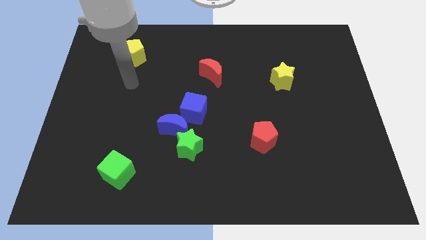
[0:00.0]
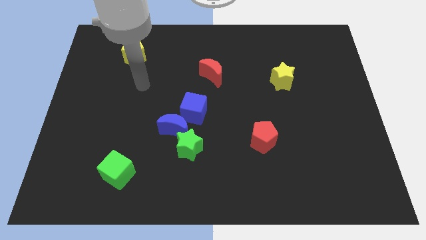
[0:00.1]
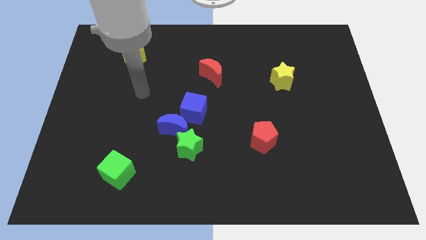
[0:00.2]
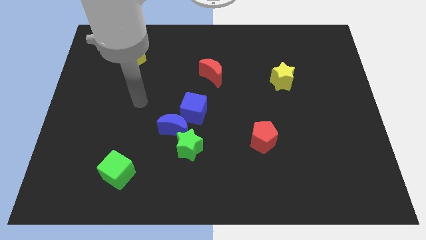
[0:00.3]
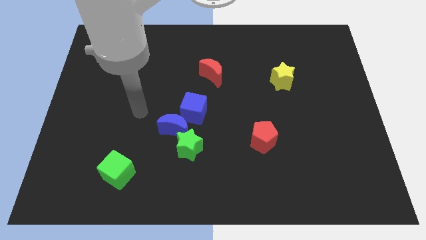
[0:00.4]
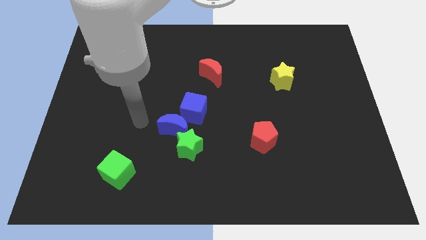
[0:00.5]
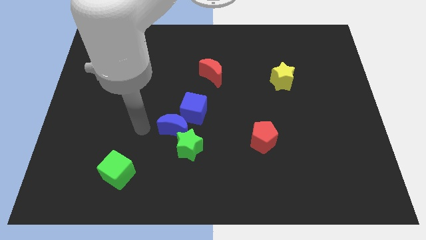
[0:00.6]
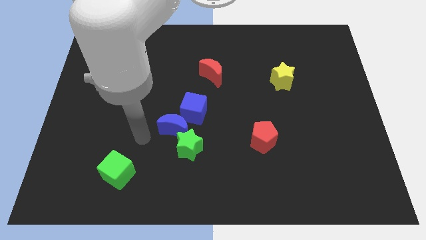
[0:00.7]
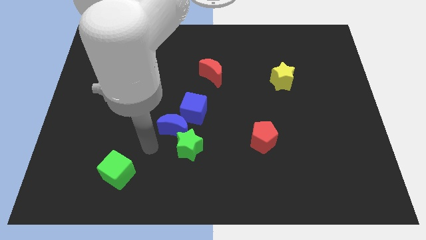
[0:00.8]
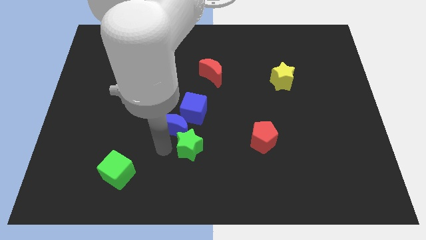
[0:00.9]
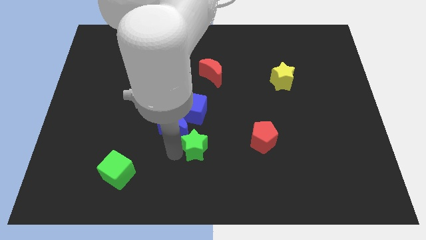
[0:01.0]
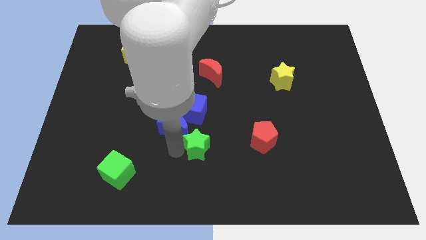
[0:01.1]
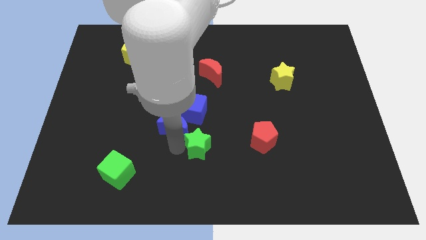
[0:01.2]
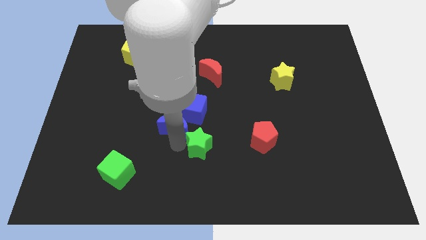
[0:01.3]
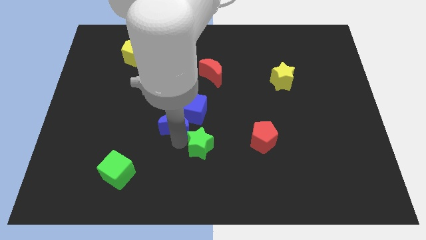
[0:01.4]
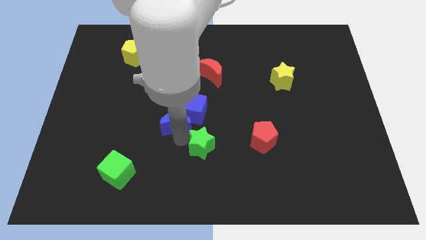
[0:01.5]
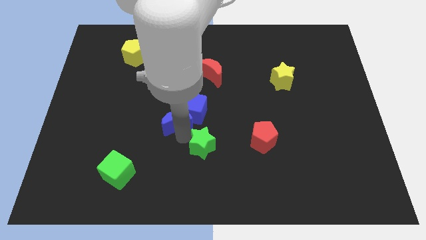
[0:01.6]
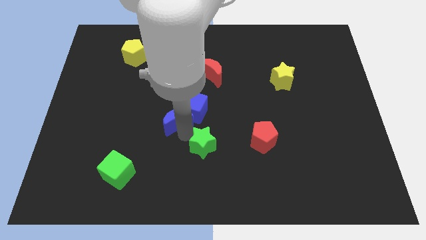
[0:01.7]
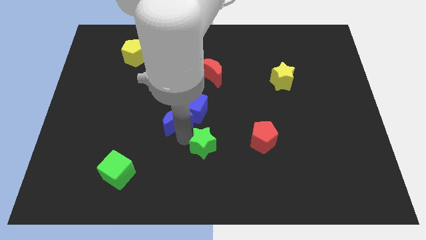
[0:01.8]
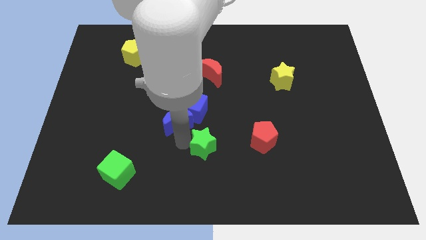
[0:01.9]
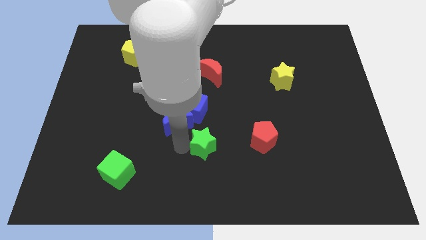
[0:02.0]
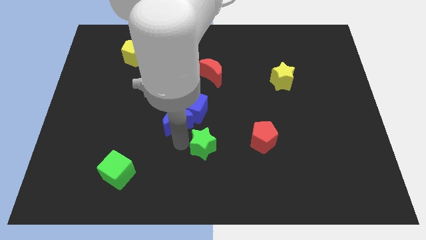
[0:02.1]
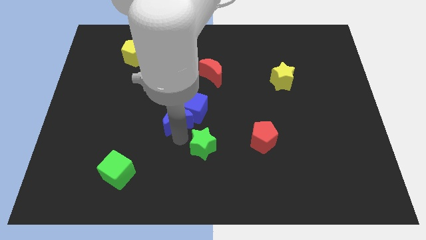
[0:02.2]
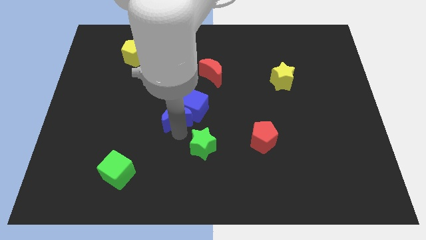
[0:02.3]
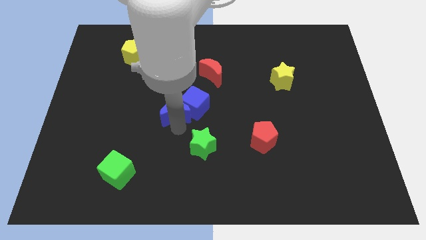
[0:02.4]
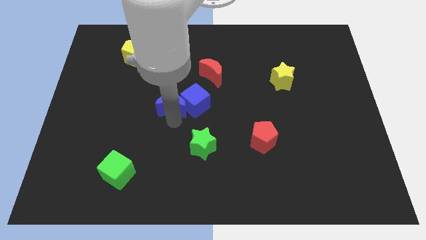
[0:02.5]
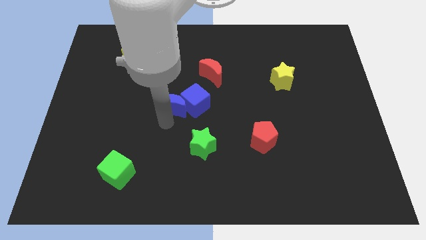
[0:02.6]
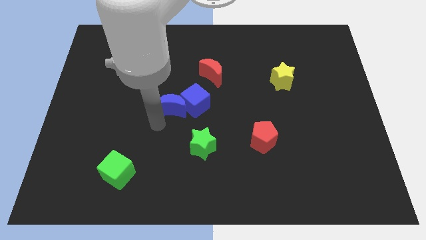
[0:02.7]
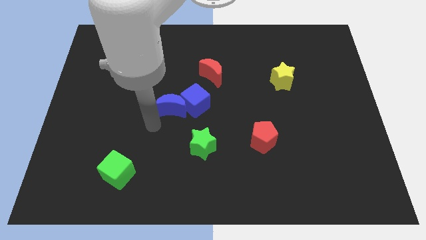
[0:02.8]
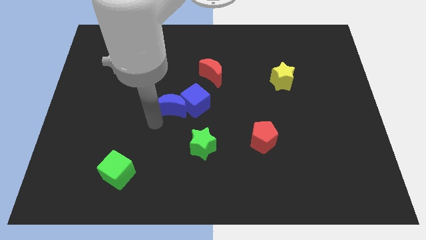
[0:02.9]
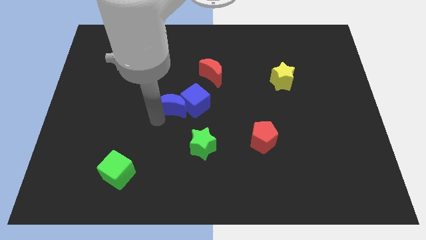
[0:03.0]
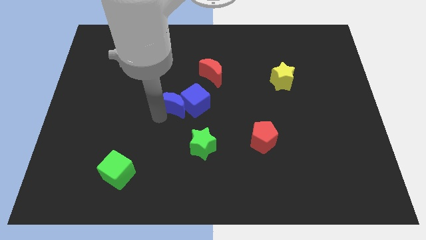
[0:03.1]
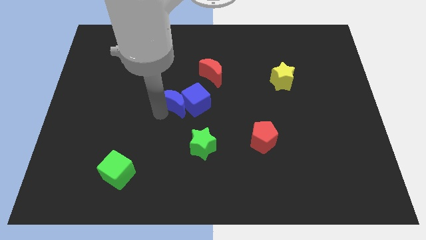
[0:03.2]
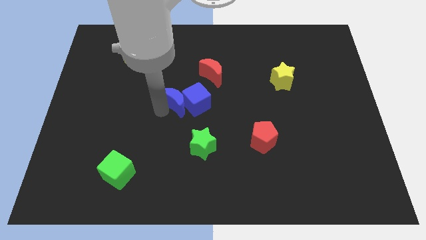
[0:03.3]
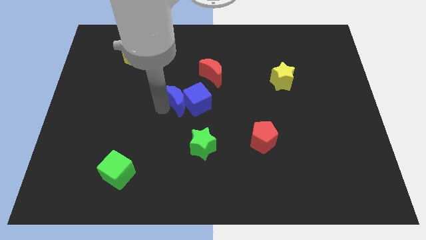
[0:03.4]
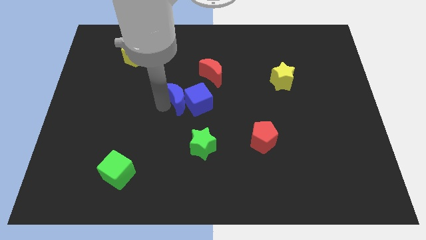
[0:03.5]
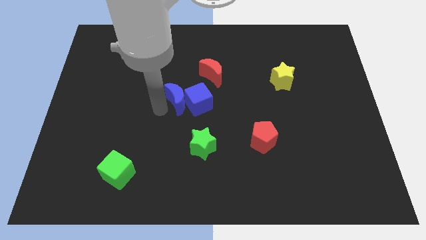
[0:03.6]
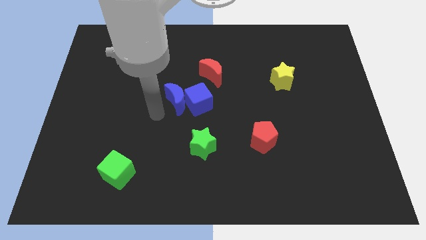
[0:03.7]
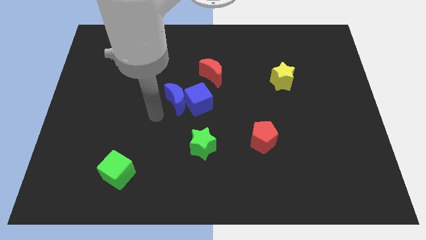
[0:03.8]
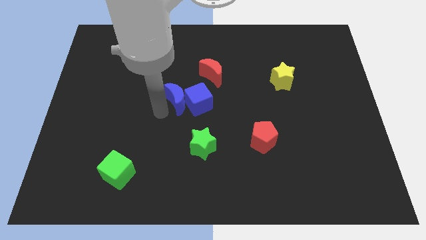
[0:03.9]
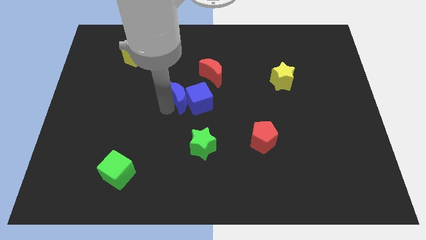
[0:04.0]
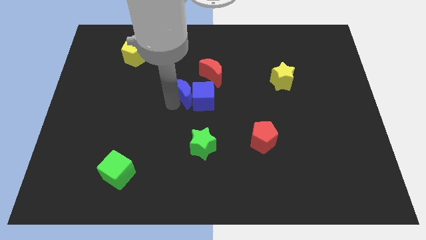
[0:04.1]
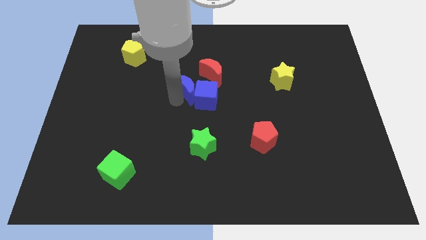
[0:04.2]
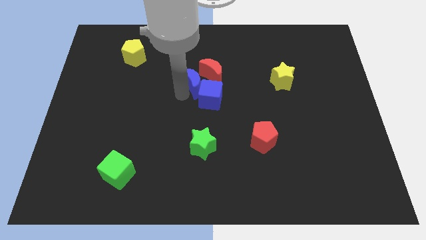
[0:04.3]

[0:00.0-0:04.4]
slide the blue moon to the red moon

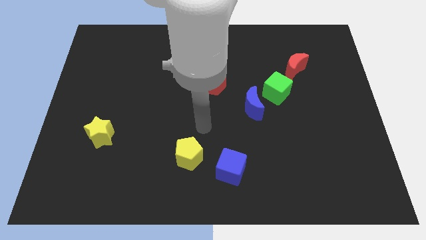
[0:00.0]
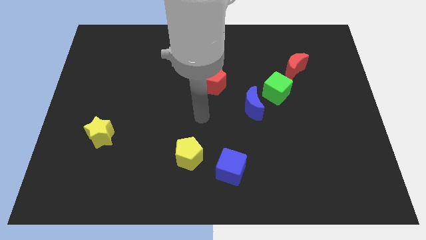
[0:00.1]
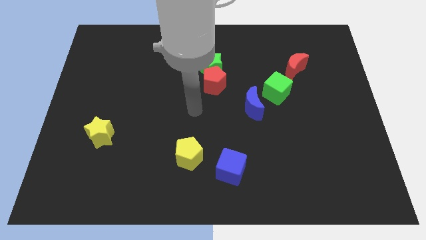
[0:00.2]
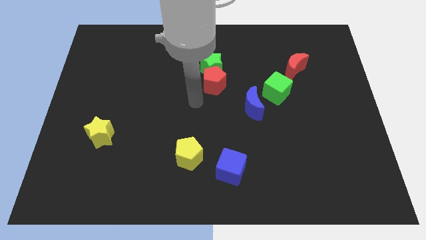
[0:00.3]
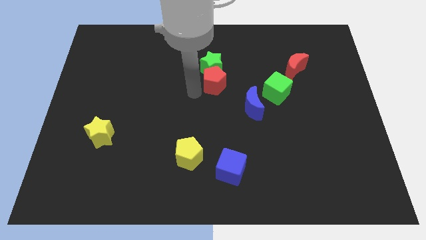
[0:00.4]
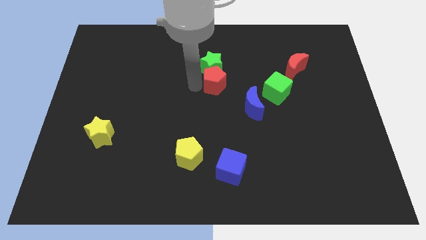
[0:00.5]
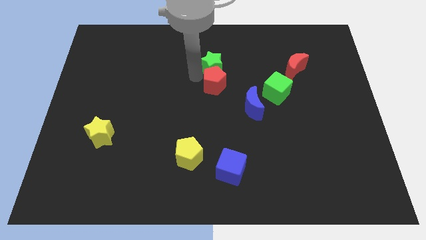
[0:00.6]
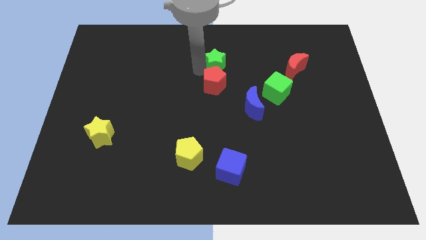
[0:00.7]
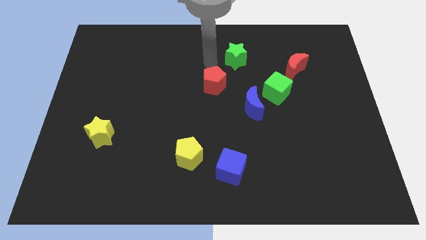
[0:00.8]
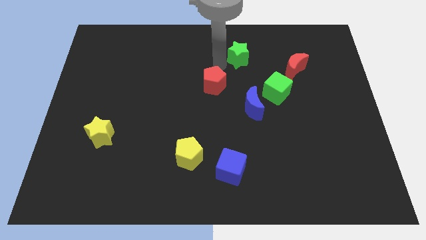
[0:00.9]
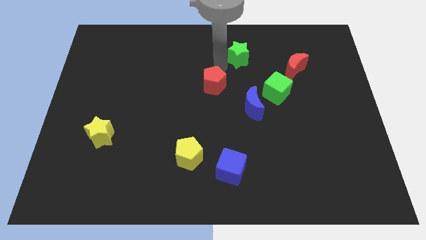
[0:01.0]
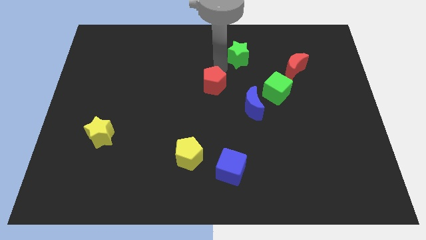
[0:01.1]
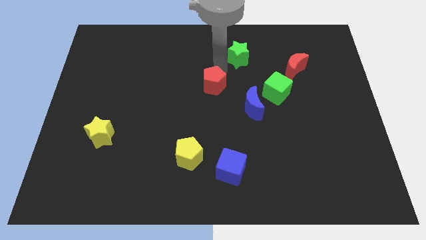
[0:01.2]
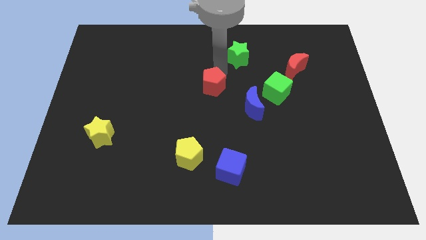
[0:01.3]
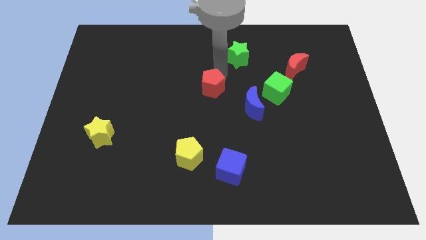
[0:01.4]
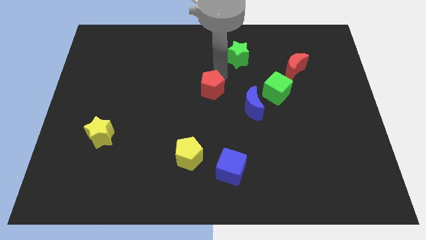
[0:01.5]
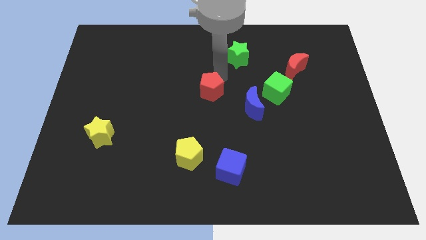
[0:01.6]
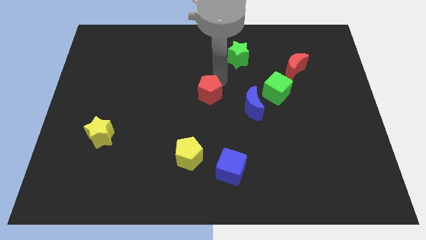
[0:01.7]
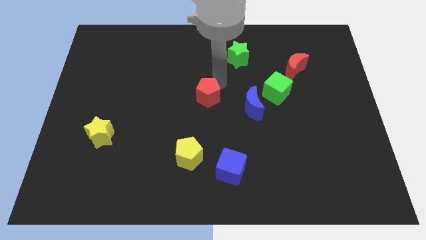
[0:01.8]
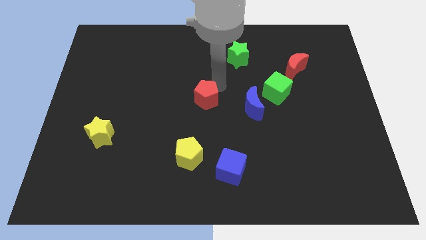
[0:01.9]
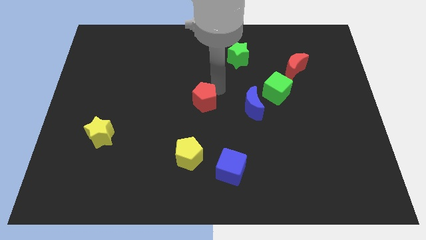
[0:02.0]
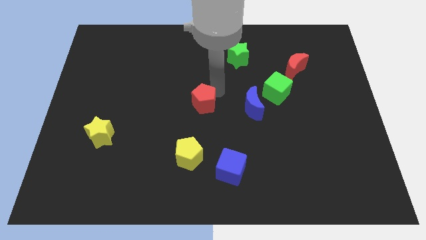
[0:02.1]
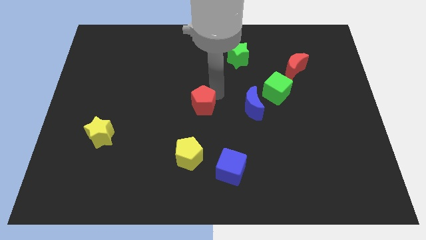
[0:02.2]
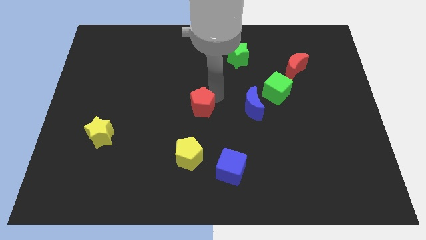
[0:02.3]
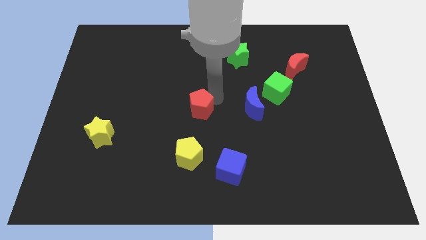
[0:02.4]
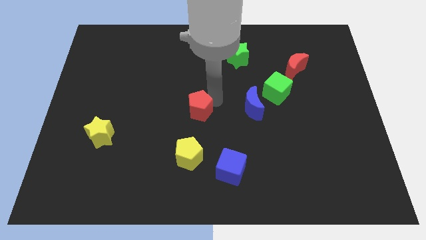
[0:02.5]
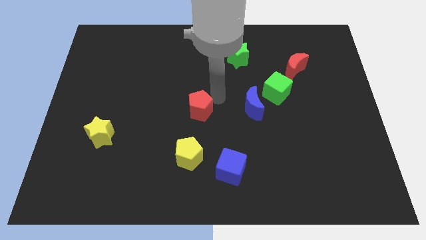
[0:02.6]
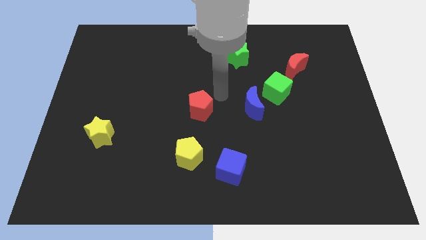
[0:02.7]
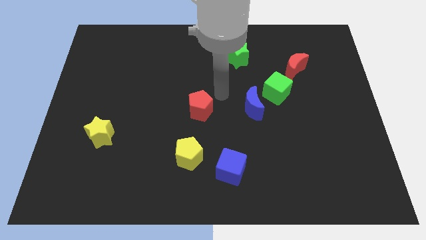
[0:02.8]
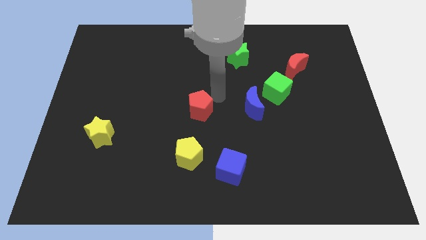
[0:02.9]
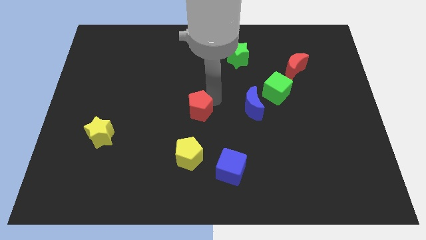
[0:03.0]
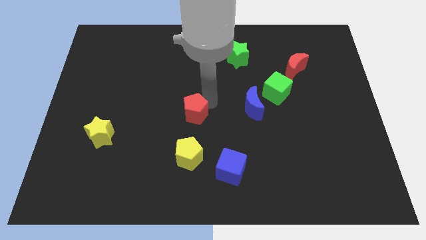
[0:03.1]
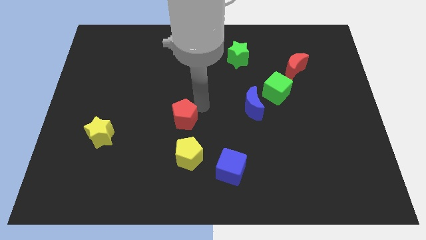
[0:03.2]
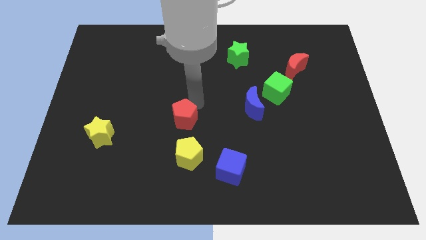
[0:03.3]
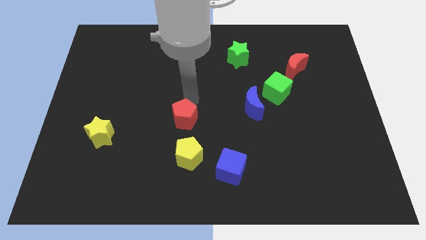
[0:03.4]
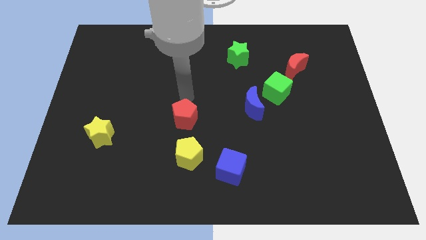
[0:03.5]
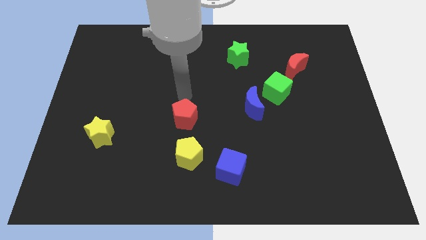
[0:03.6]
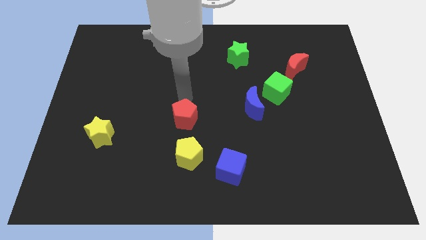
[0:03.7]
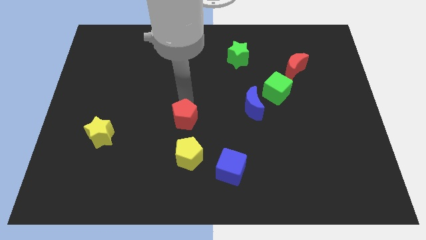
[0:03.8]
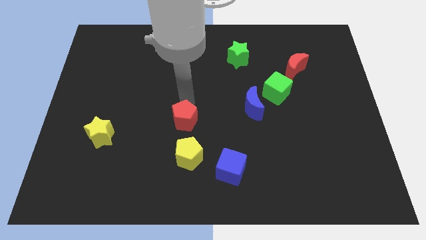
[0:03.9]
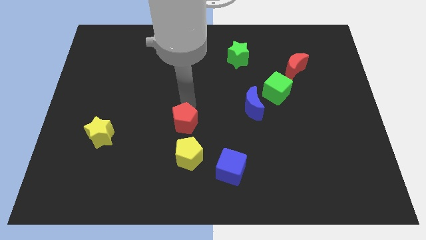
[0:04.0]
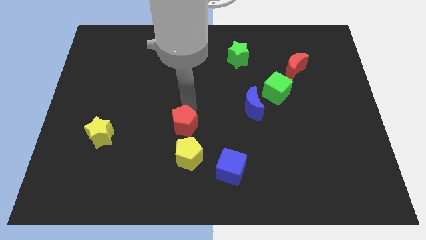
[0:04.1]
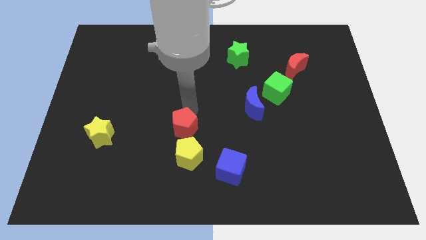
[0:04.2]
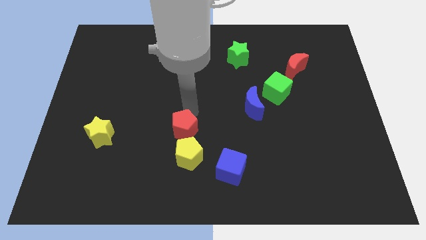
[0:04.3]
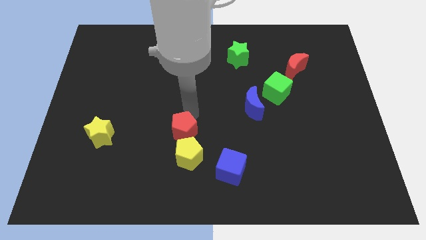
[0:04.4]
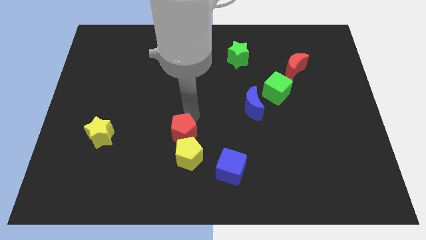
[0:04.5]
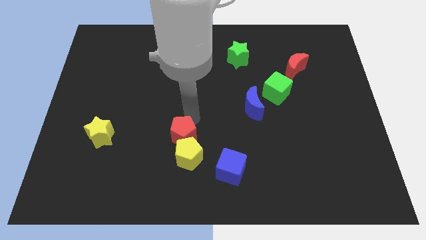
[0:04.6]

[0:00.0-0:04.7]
move the red pentagon towards the yellow pentagon
